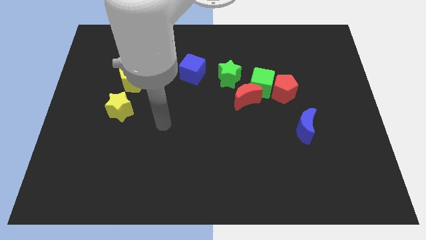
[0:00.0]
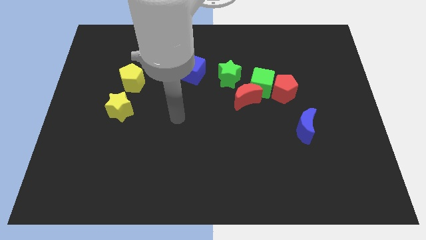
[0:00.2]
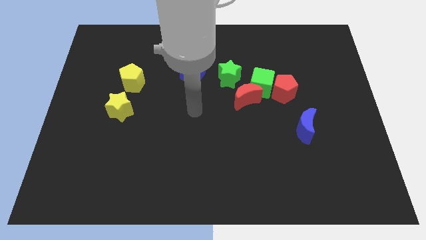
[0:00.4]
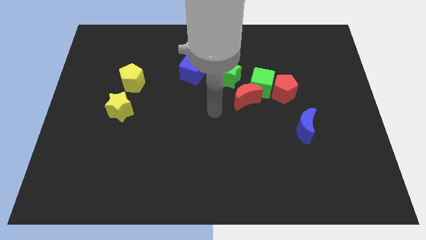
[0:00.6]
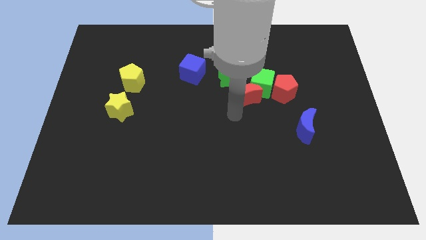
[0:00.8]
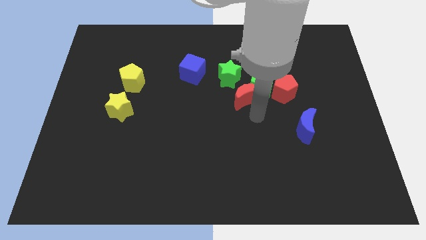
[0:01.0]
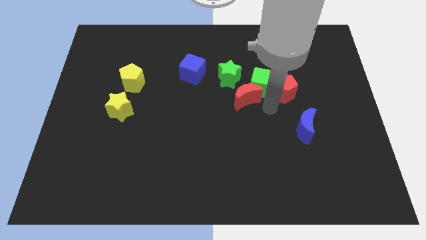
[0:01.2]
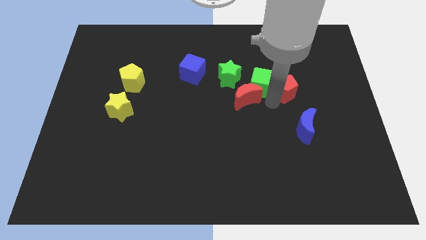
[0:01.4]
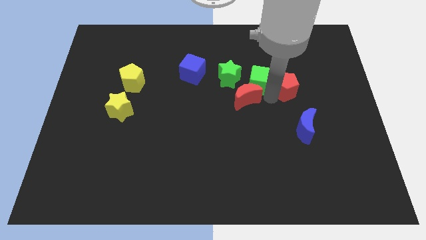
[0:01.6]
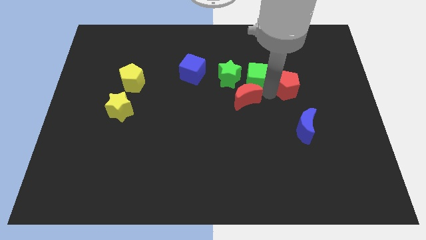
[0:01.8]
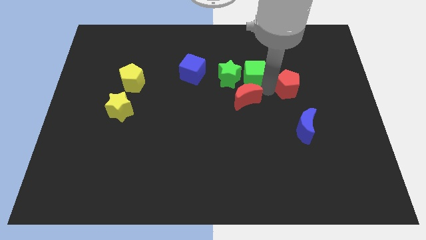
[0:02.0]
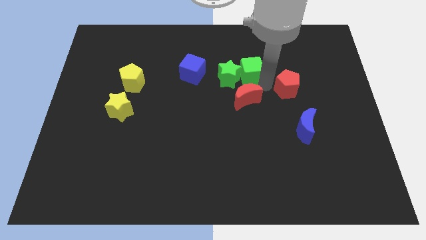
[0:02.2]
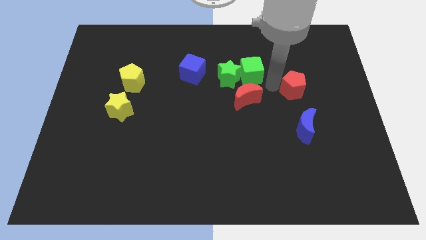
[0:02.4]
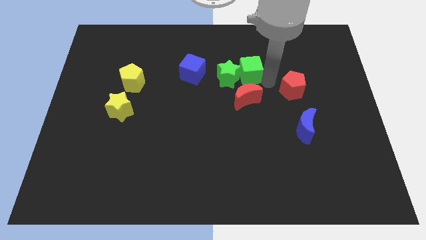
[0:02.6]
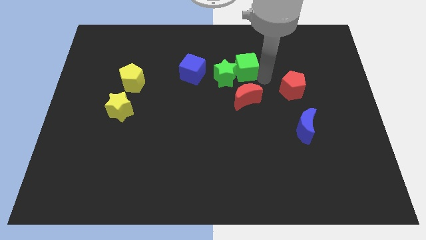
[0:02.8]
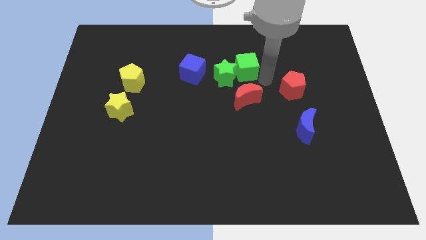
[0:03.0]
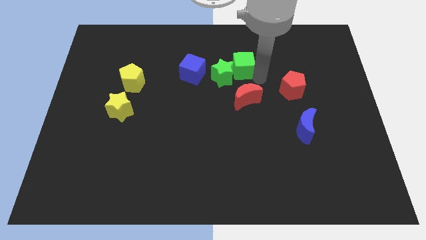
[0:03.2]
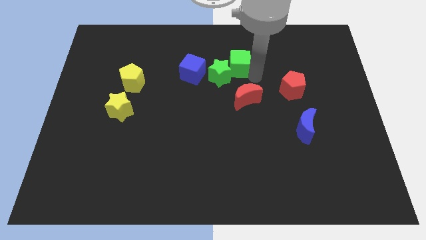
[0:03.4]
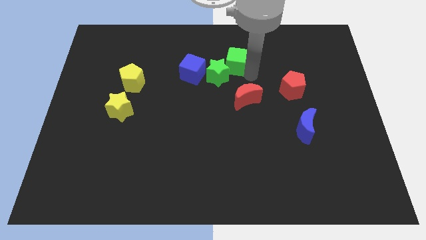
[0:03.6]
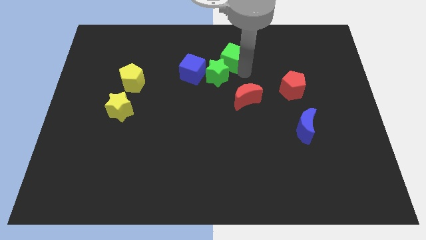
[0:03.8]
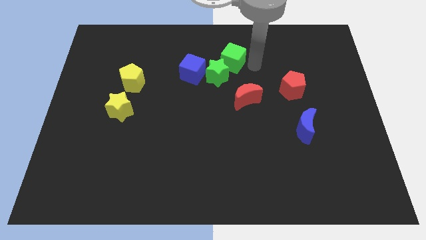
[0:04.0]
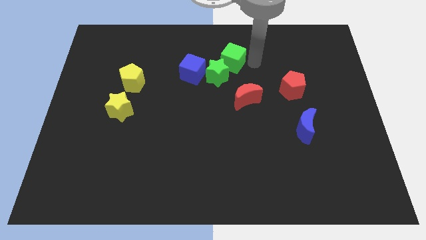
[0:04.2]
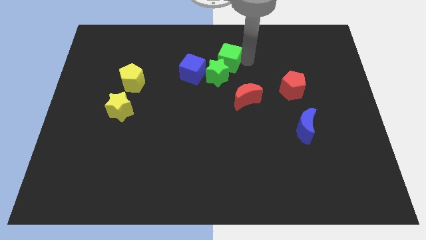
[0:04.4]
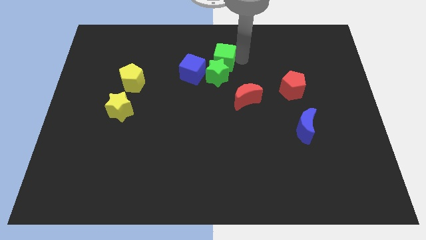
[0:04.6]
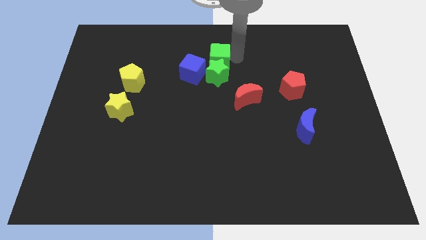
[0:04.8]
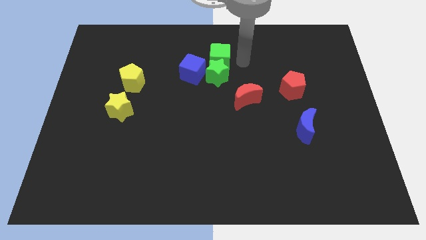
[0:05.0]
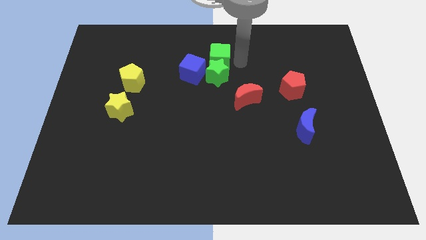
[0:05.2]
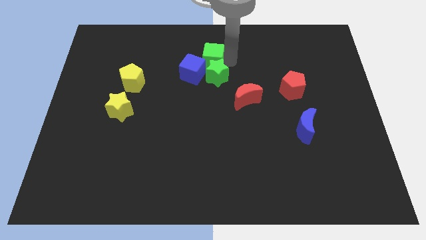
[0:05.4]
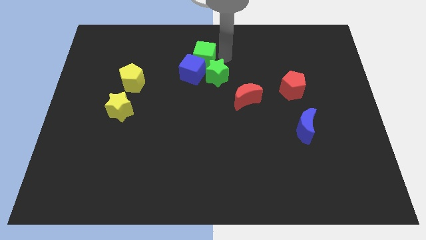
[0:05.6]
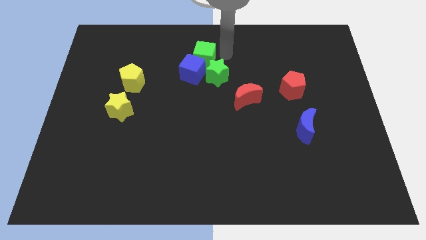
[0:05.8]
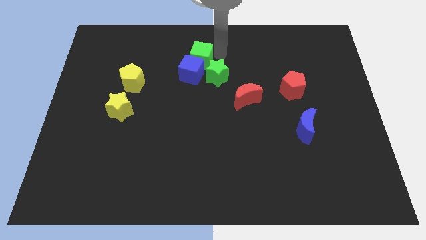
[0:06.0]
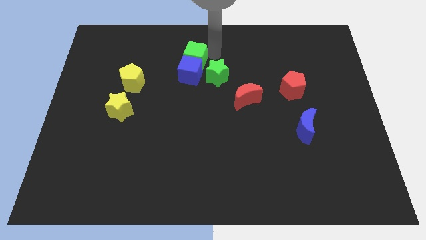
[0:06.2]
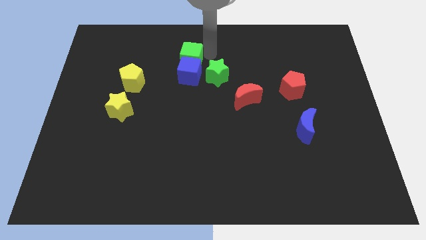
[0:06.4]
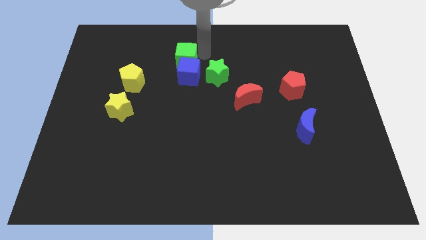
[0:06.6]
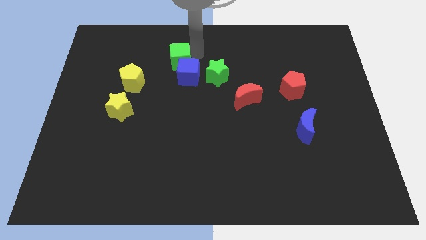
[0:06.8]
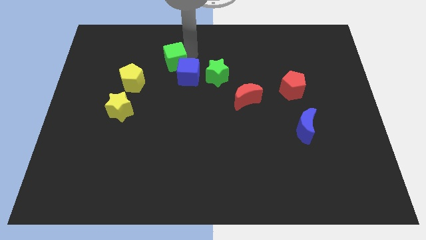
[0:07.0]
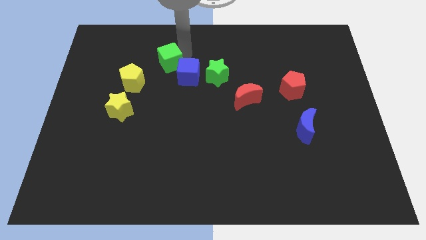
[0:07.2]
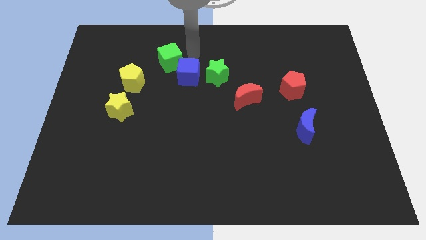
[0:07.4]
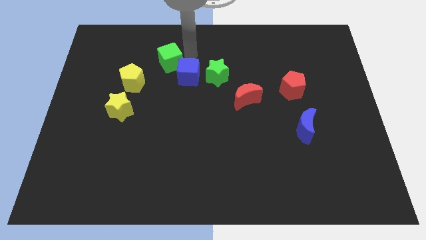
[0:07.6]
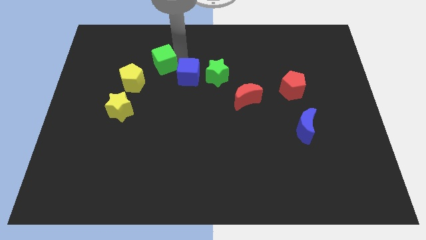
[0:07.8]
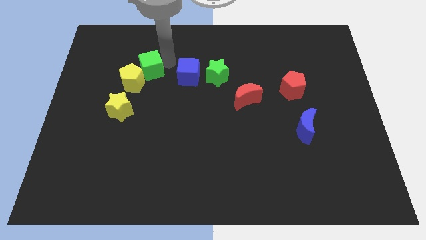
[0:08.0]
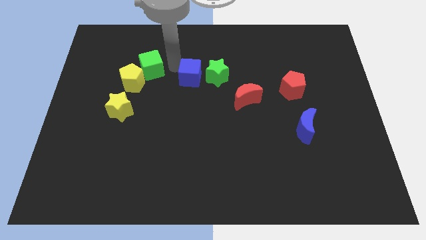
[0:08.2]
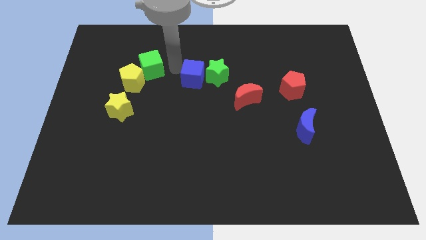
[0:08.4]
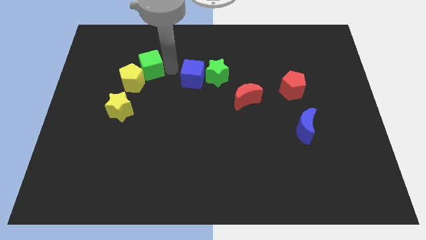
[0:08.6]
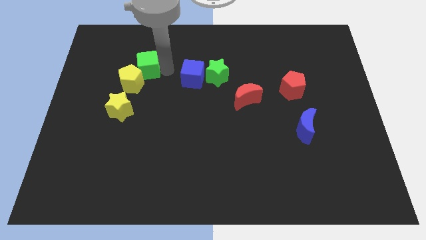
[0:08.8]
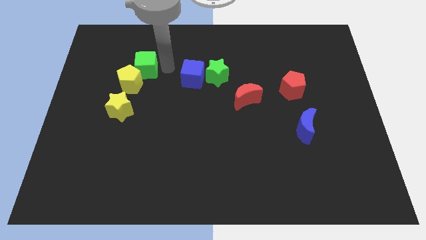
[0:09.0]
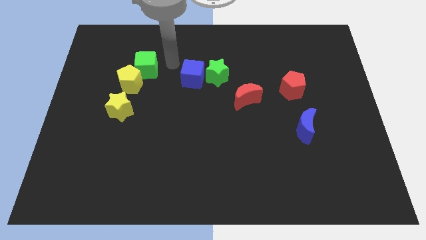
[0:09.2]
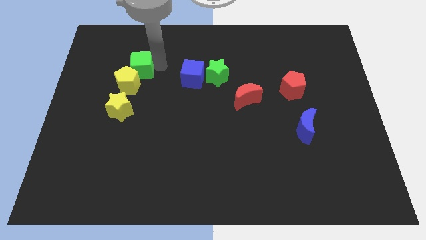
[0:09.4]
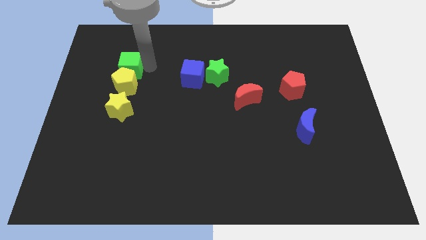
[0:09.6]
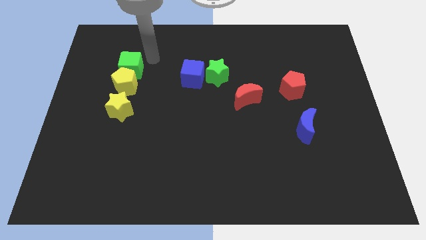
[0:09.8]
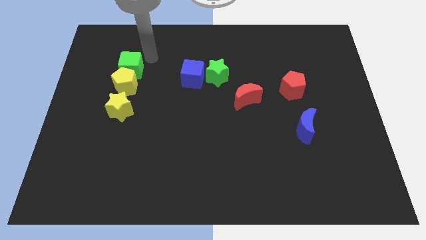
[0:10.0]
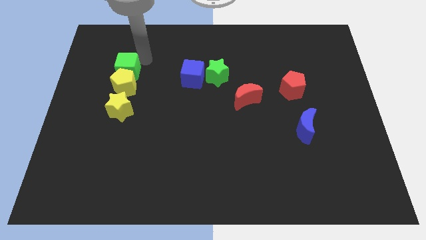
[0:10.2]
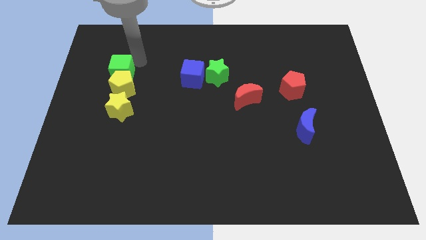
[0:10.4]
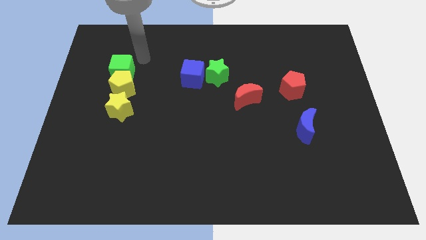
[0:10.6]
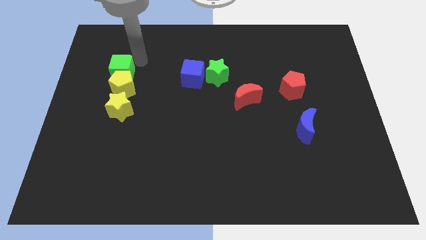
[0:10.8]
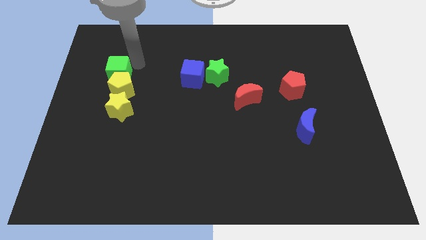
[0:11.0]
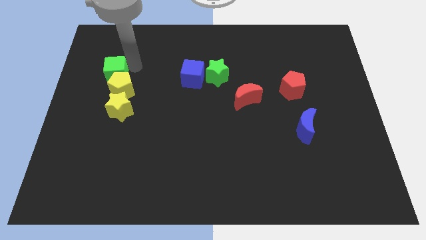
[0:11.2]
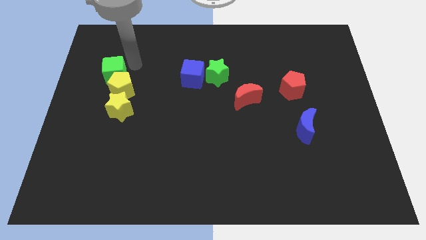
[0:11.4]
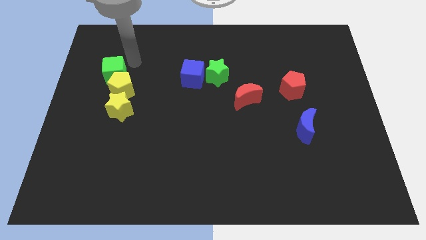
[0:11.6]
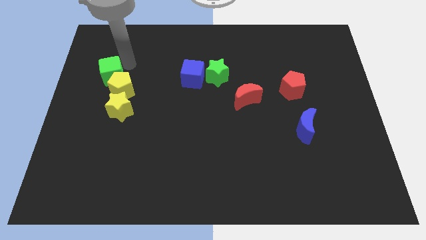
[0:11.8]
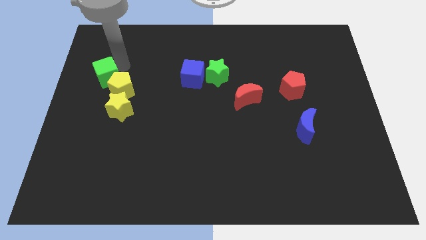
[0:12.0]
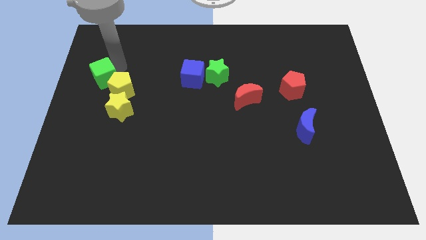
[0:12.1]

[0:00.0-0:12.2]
move the green cube to the left side

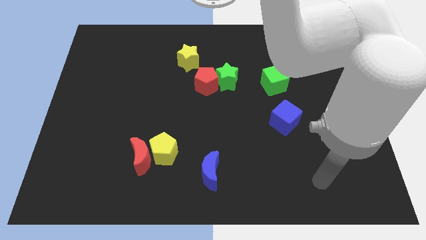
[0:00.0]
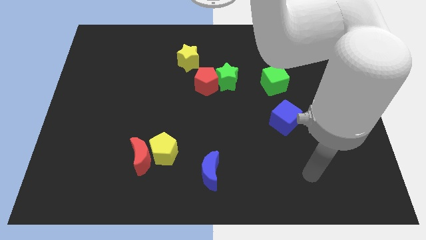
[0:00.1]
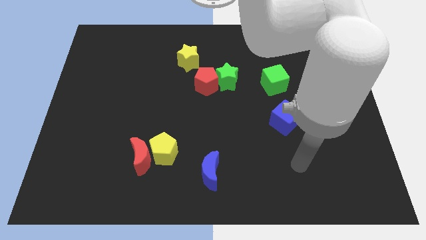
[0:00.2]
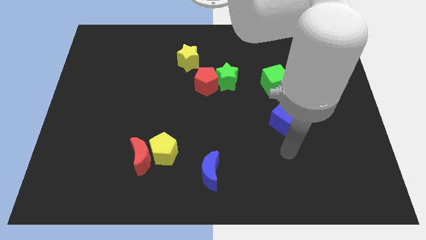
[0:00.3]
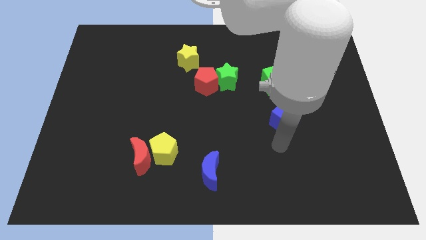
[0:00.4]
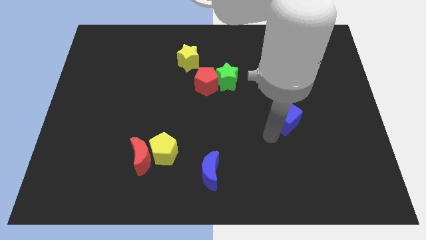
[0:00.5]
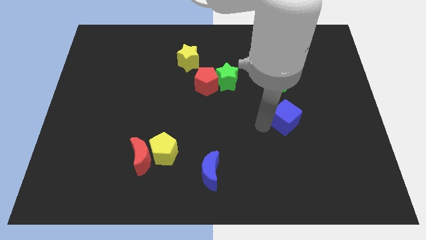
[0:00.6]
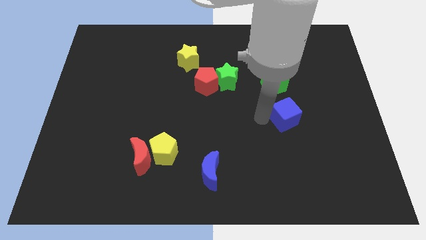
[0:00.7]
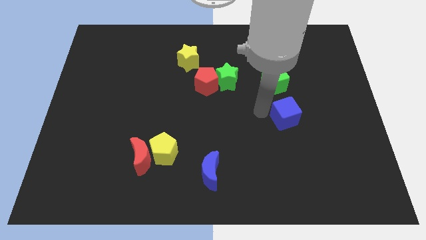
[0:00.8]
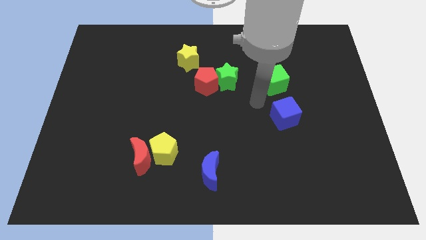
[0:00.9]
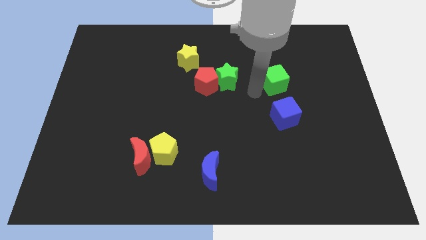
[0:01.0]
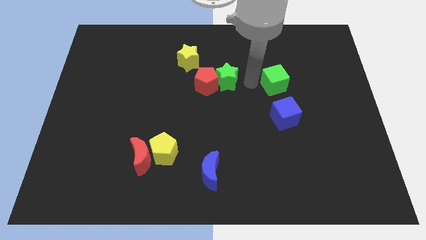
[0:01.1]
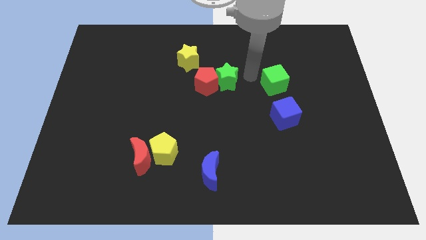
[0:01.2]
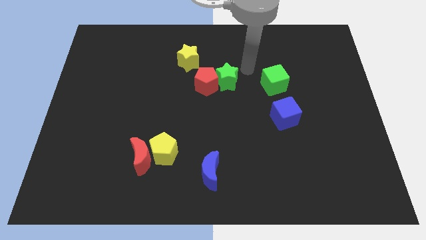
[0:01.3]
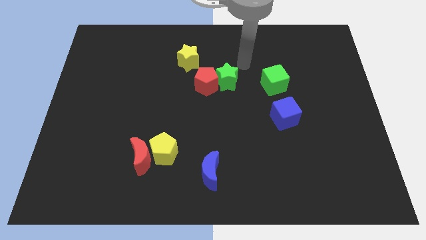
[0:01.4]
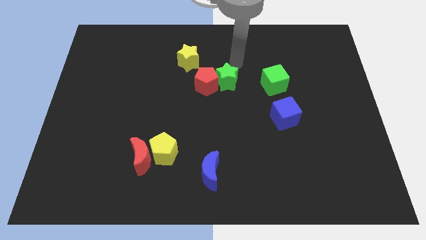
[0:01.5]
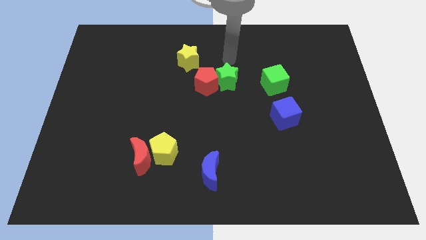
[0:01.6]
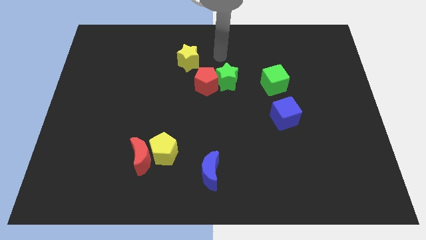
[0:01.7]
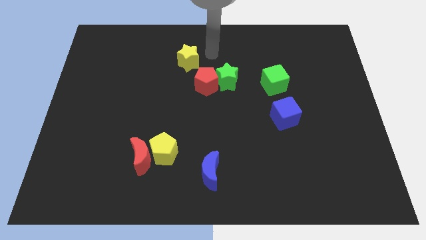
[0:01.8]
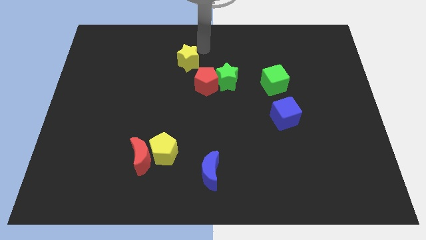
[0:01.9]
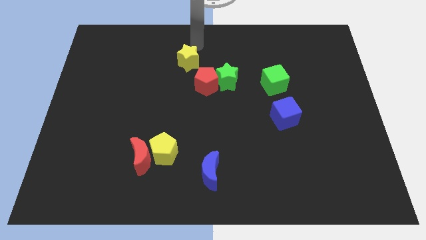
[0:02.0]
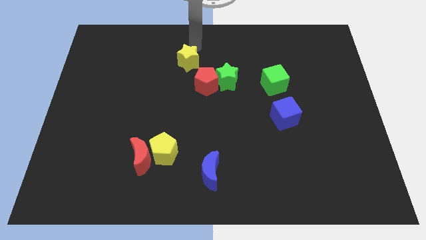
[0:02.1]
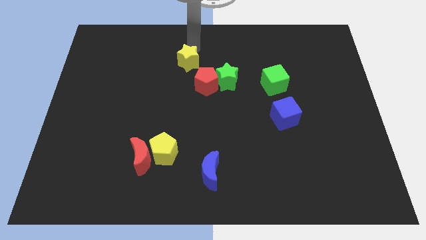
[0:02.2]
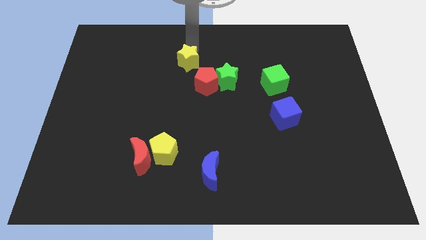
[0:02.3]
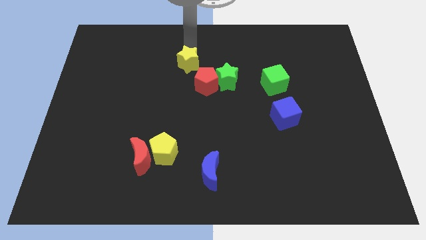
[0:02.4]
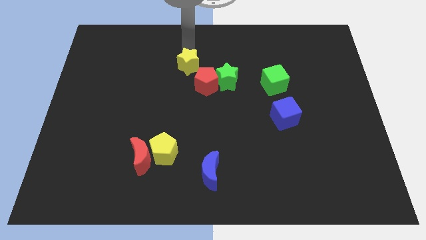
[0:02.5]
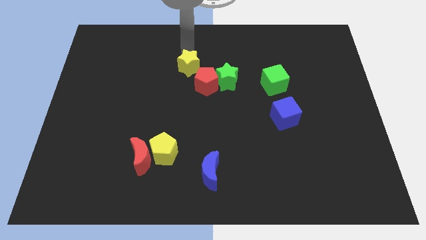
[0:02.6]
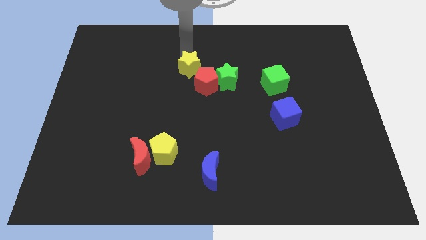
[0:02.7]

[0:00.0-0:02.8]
move the yellow star to the middle of the board
